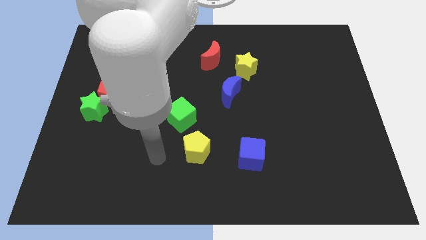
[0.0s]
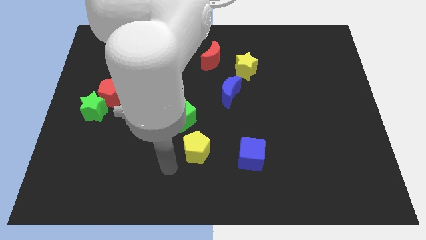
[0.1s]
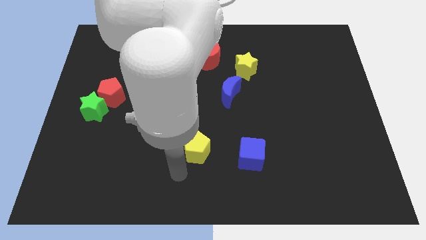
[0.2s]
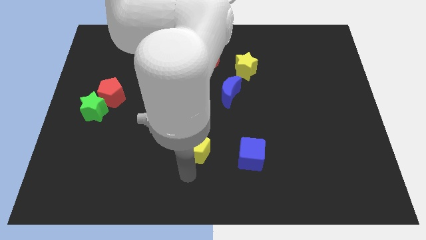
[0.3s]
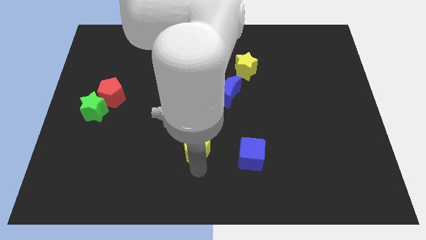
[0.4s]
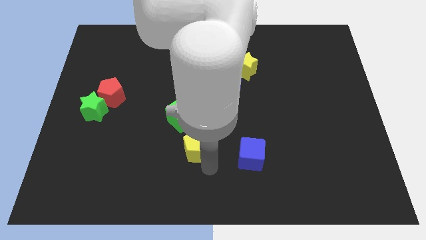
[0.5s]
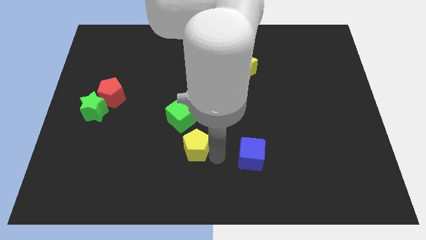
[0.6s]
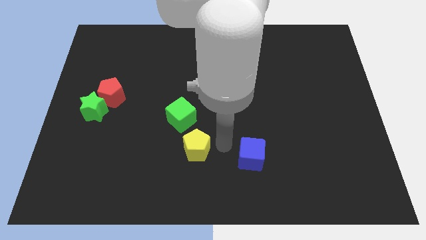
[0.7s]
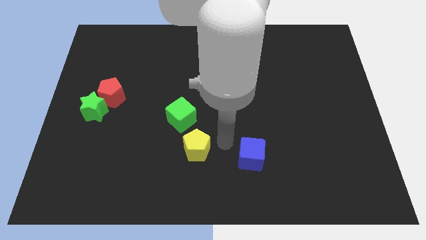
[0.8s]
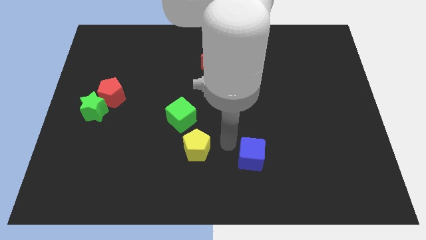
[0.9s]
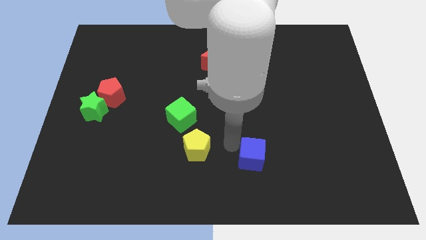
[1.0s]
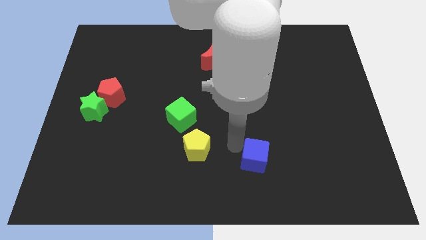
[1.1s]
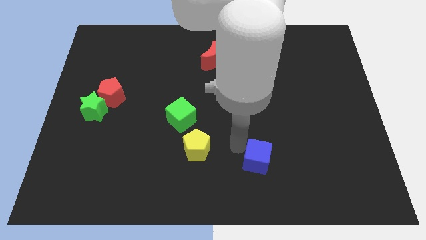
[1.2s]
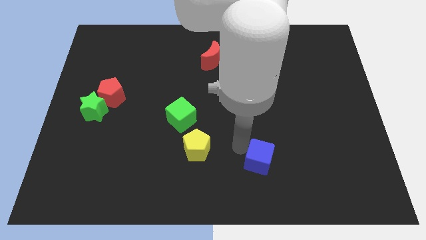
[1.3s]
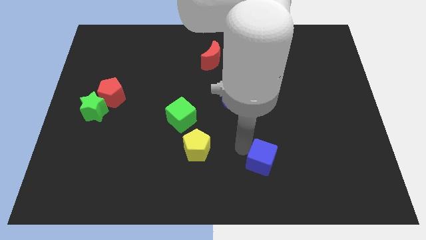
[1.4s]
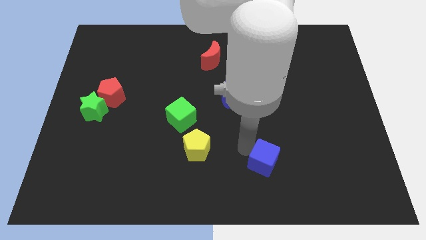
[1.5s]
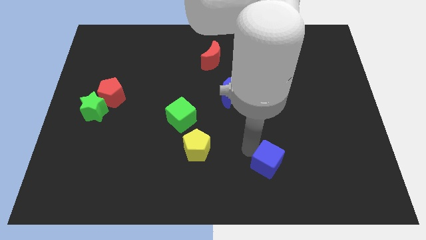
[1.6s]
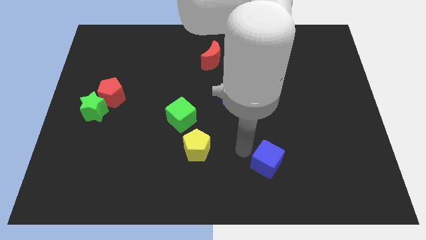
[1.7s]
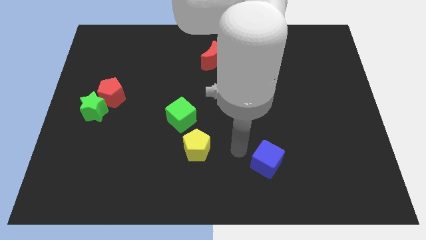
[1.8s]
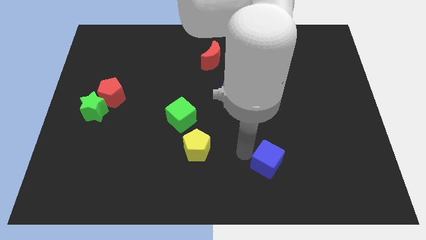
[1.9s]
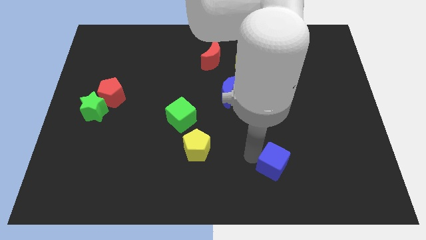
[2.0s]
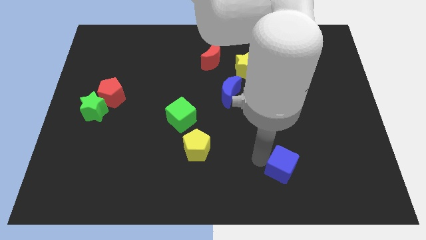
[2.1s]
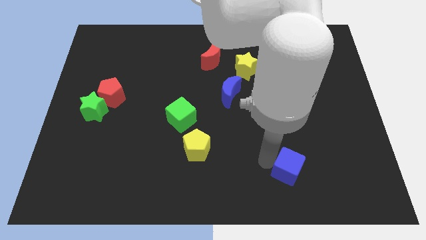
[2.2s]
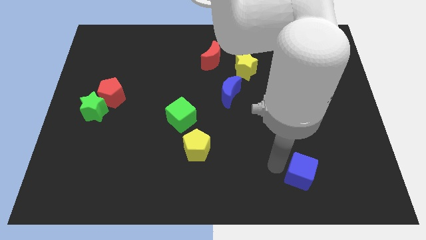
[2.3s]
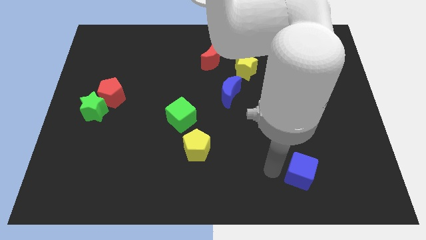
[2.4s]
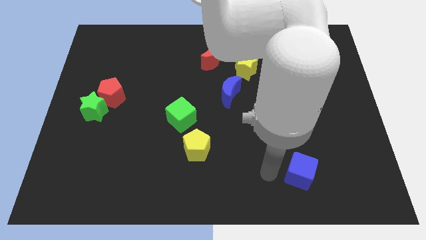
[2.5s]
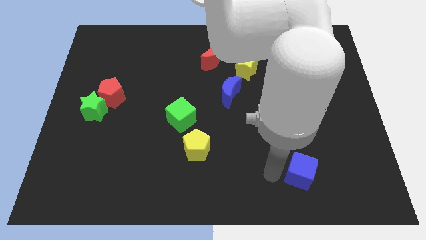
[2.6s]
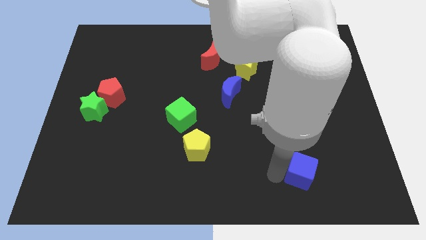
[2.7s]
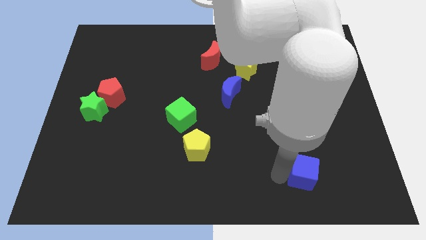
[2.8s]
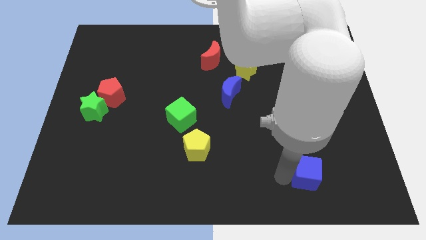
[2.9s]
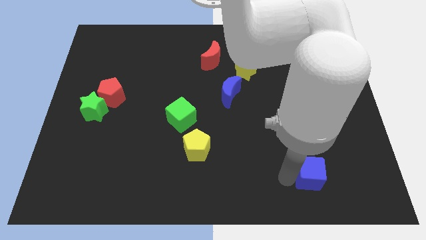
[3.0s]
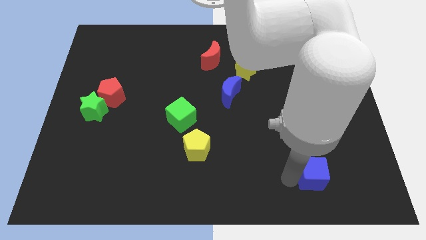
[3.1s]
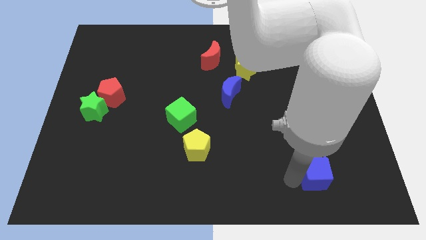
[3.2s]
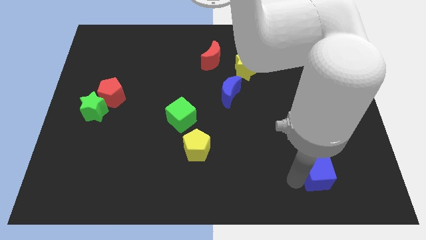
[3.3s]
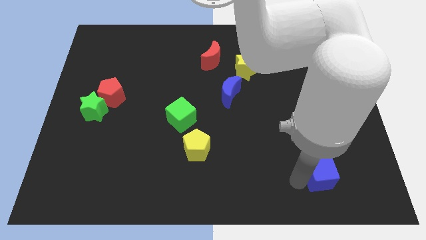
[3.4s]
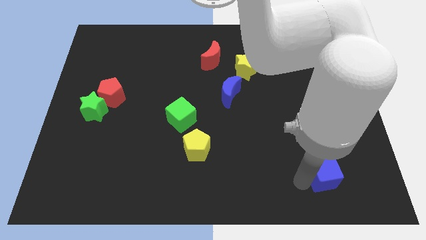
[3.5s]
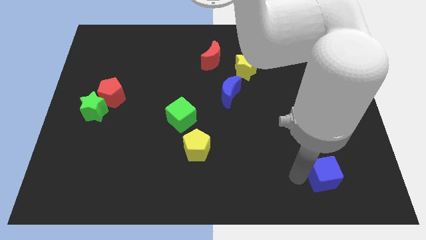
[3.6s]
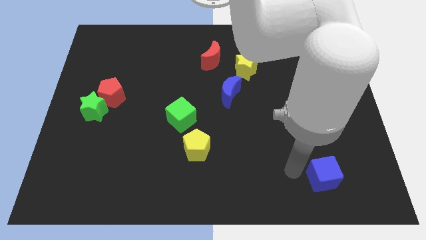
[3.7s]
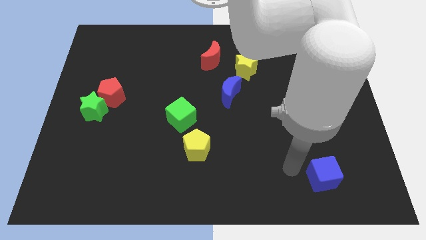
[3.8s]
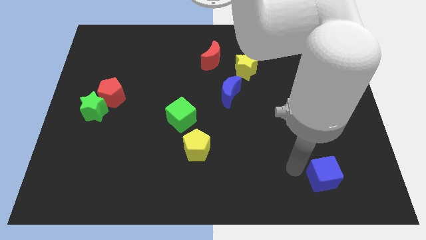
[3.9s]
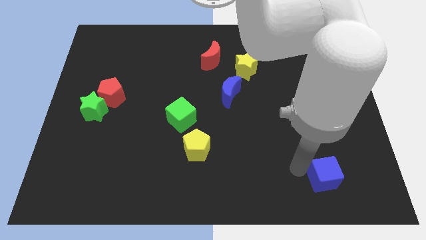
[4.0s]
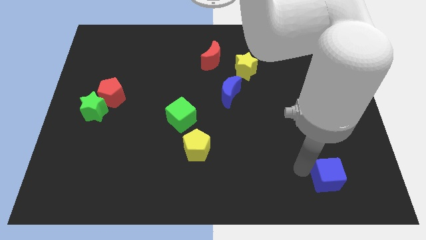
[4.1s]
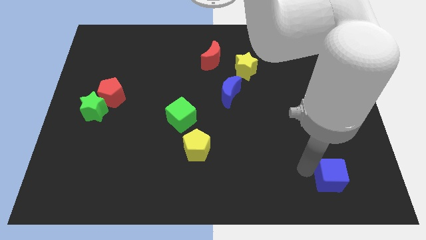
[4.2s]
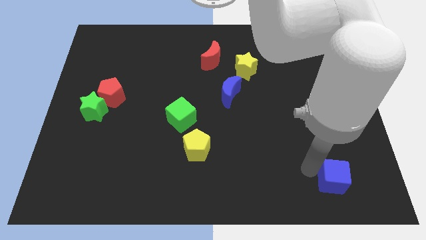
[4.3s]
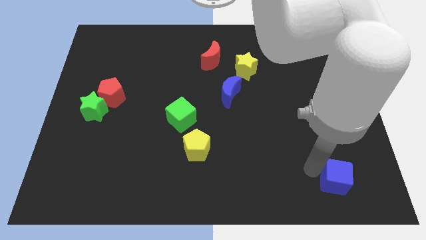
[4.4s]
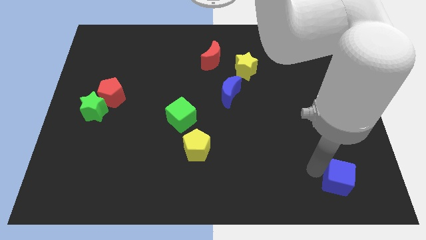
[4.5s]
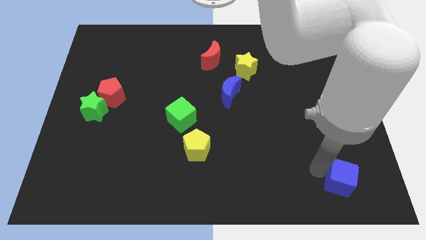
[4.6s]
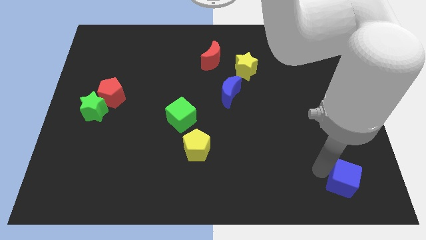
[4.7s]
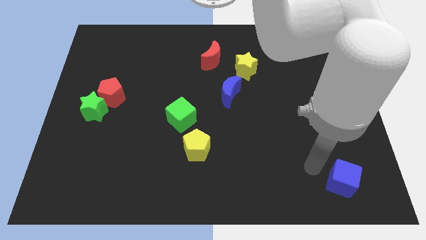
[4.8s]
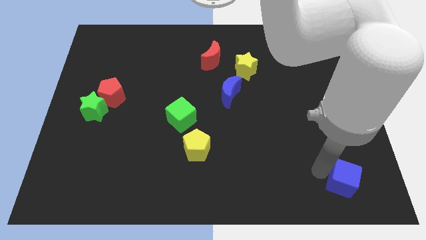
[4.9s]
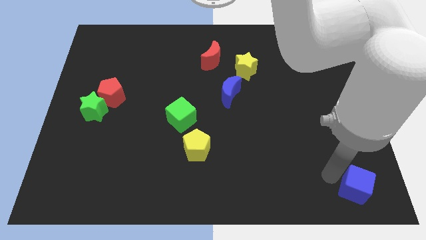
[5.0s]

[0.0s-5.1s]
slide the blue cube to the lower right corner
